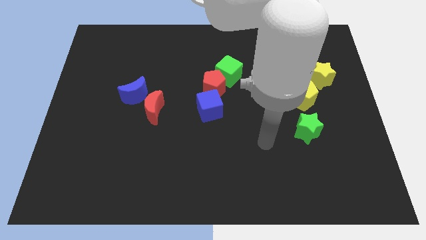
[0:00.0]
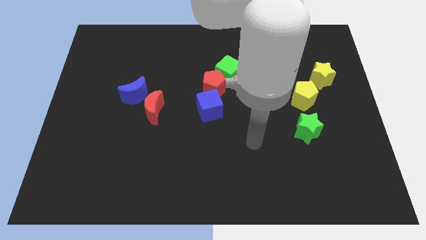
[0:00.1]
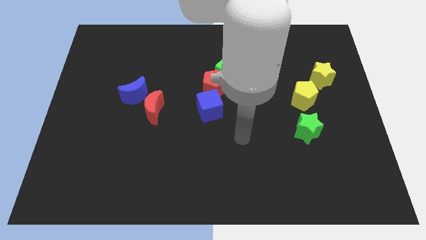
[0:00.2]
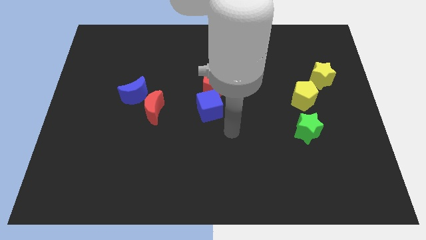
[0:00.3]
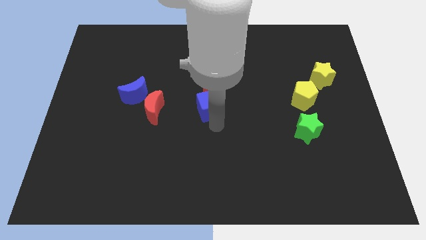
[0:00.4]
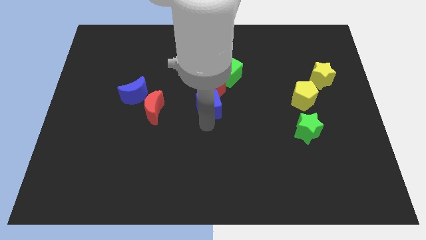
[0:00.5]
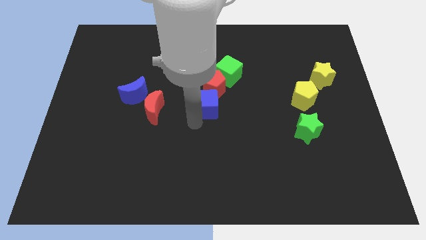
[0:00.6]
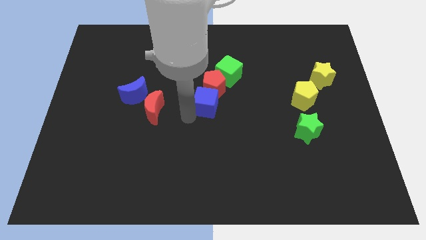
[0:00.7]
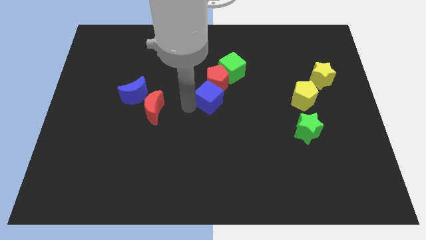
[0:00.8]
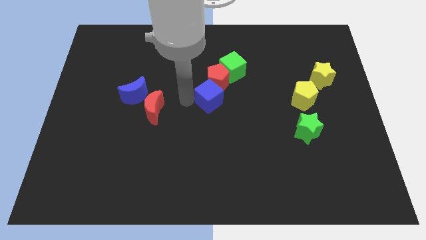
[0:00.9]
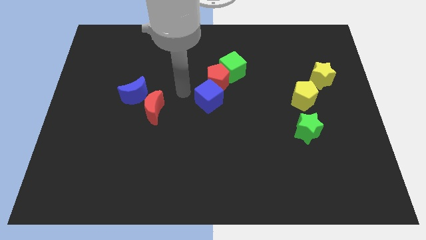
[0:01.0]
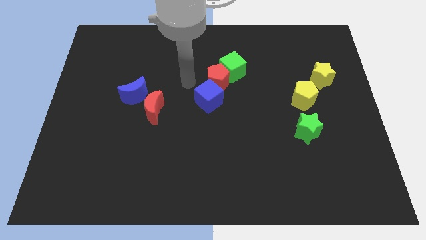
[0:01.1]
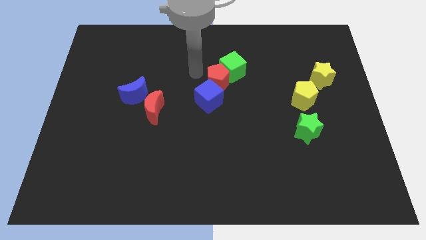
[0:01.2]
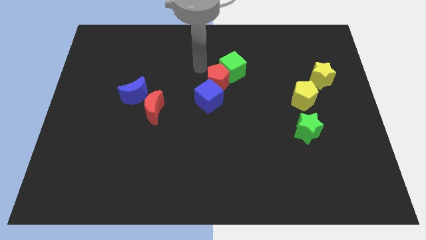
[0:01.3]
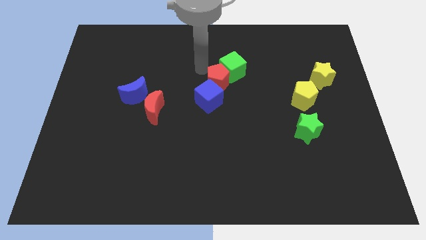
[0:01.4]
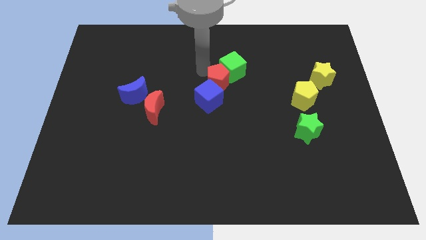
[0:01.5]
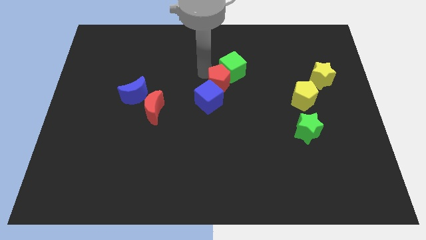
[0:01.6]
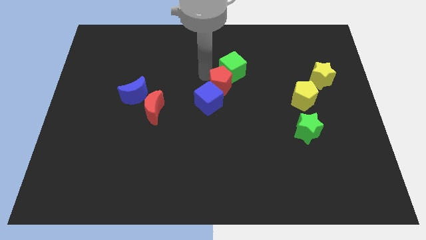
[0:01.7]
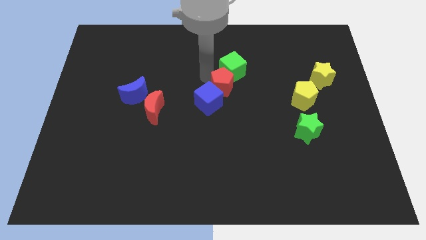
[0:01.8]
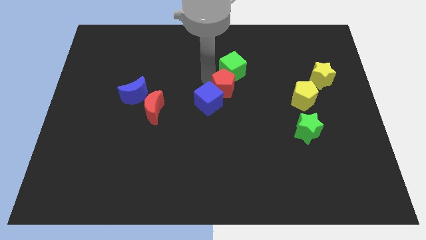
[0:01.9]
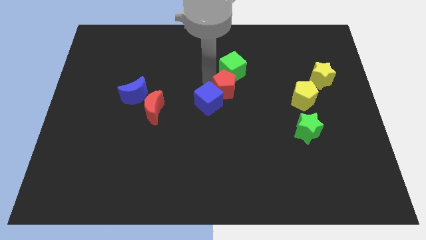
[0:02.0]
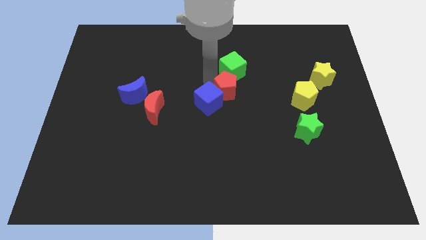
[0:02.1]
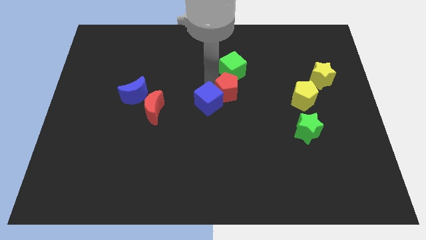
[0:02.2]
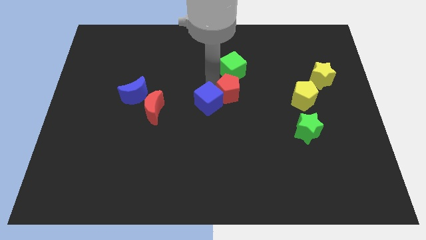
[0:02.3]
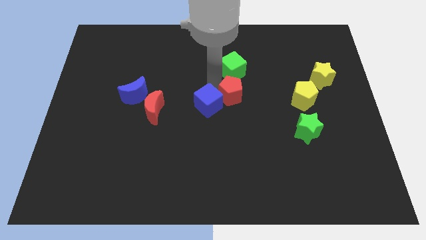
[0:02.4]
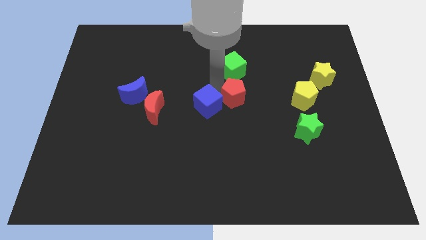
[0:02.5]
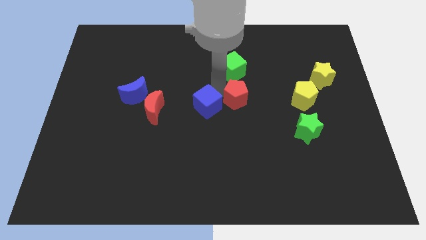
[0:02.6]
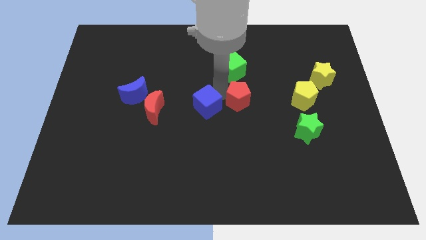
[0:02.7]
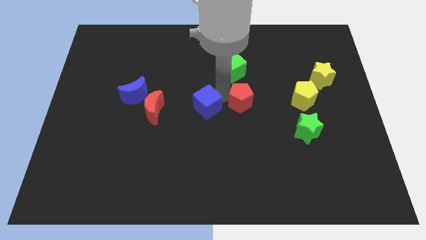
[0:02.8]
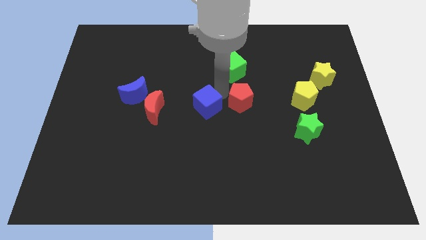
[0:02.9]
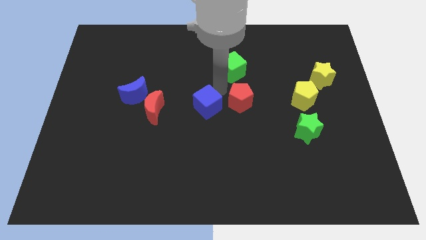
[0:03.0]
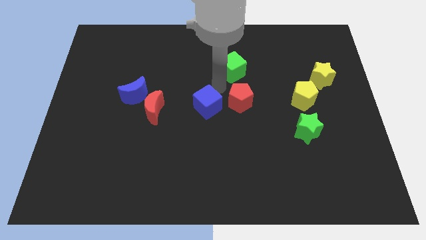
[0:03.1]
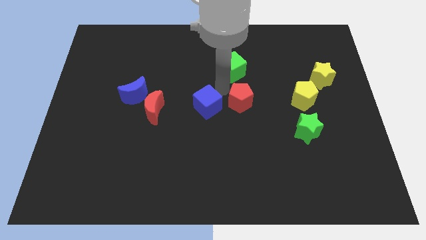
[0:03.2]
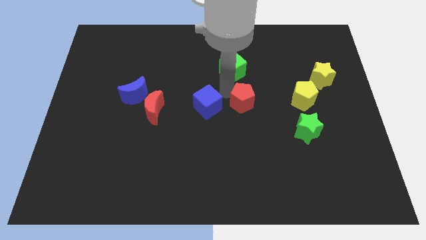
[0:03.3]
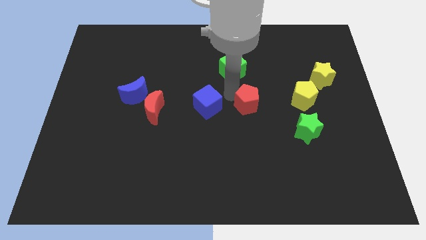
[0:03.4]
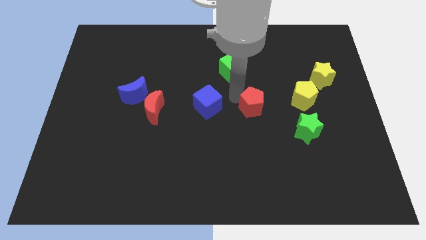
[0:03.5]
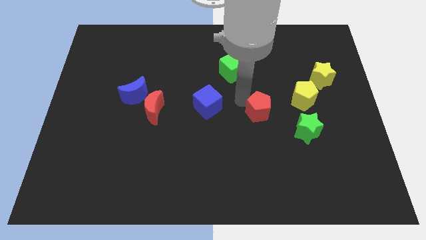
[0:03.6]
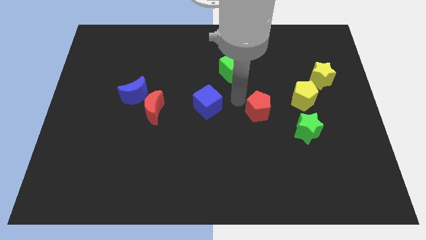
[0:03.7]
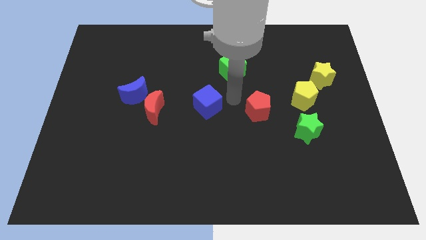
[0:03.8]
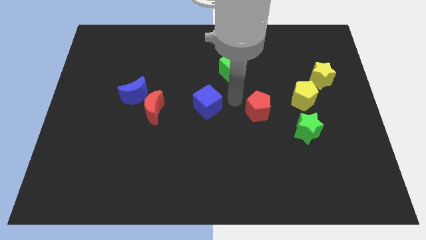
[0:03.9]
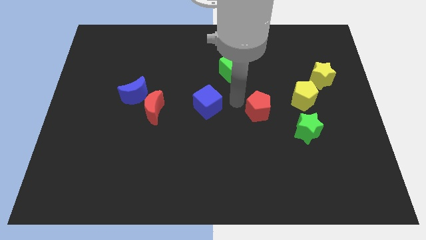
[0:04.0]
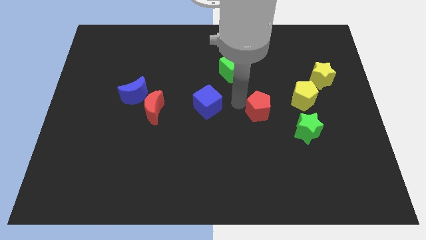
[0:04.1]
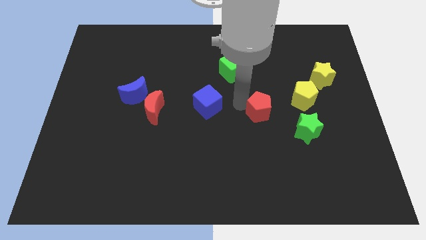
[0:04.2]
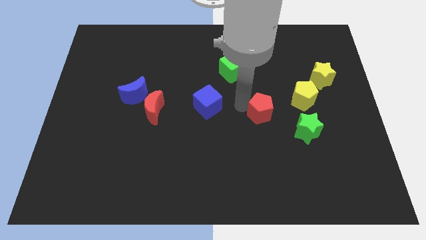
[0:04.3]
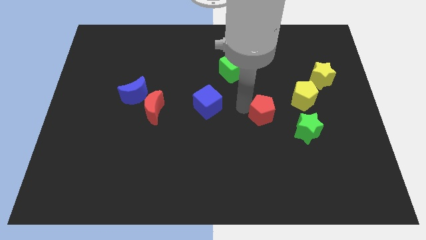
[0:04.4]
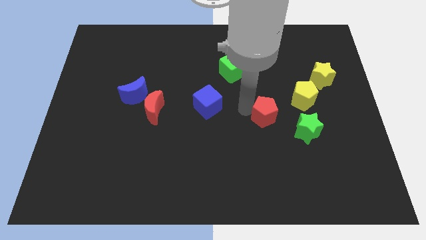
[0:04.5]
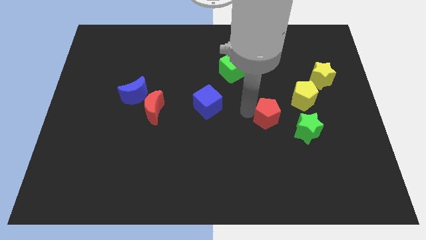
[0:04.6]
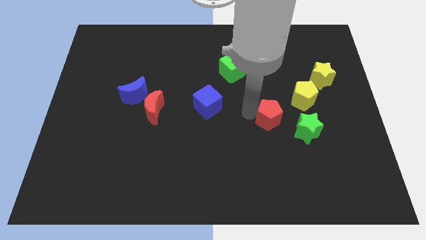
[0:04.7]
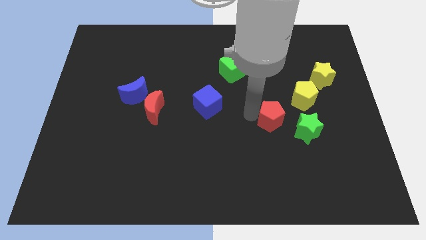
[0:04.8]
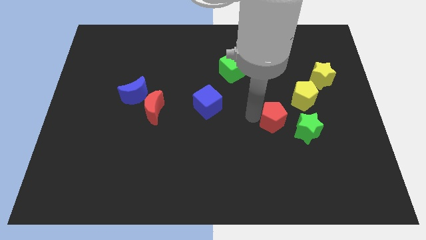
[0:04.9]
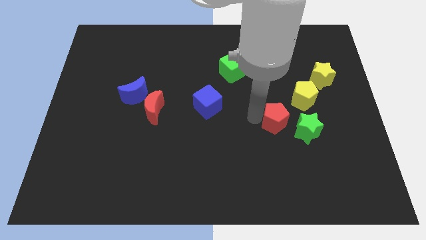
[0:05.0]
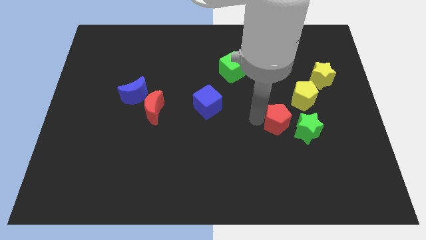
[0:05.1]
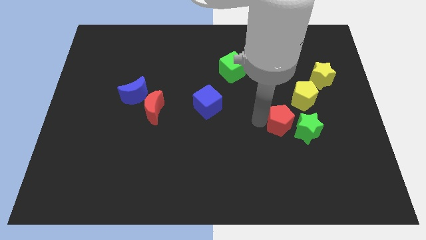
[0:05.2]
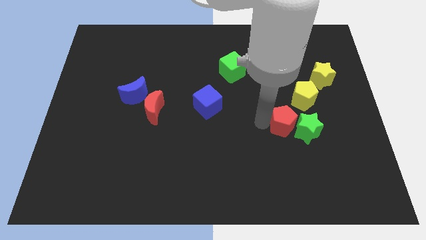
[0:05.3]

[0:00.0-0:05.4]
slide the red pentagon to the green star

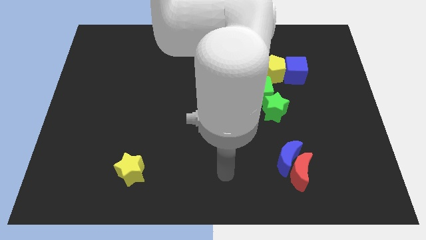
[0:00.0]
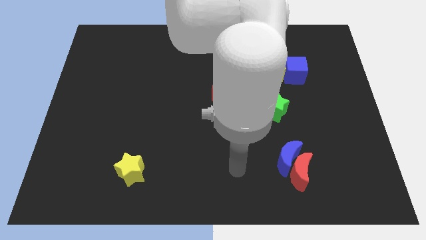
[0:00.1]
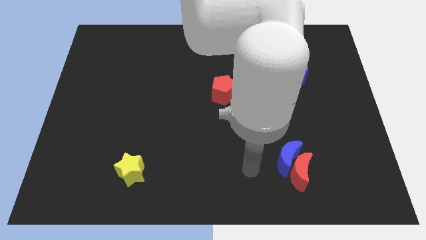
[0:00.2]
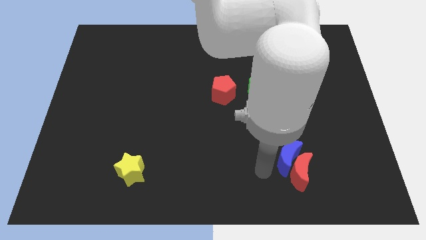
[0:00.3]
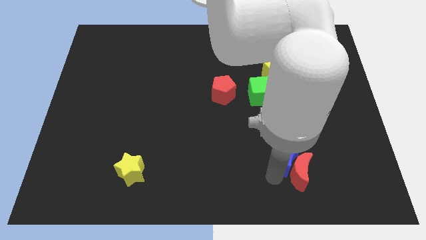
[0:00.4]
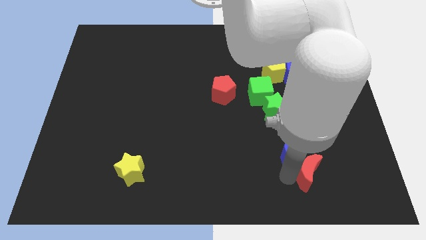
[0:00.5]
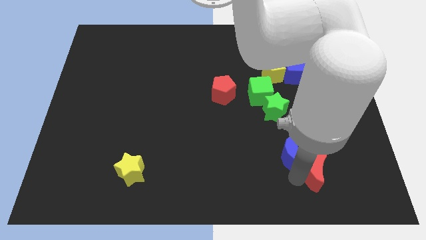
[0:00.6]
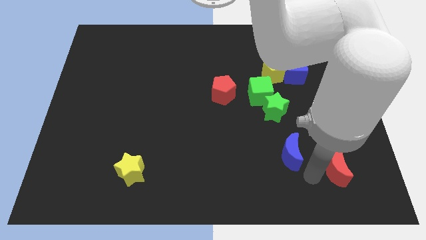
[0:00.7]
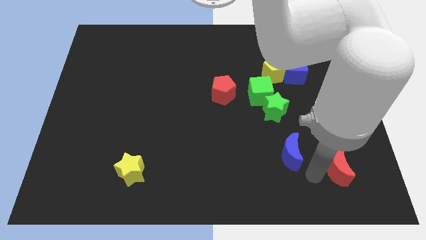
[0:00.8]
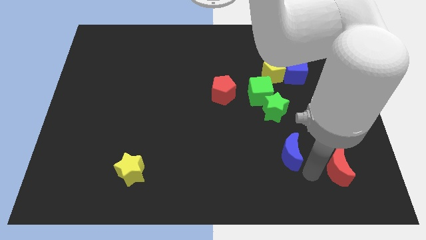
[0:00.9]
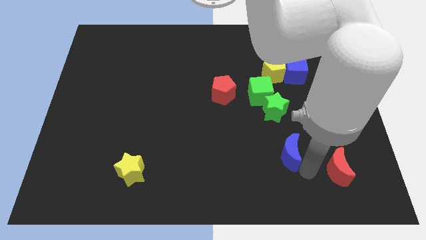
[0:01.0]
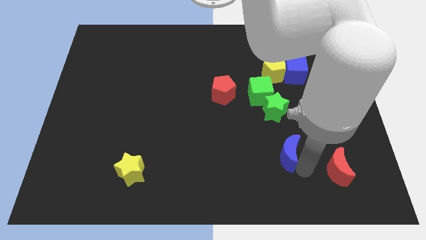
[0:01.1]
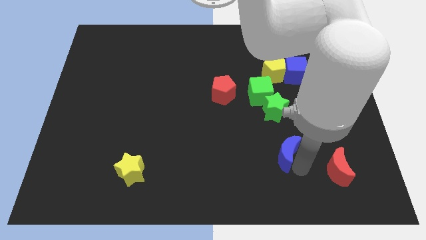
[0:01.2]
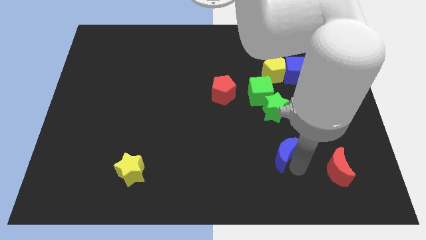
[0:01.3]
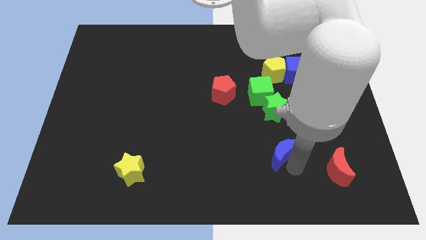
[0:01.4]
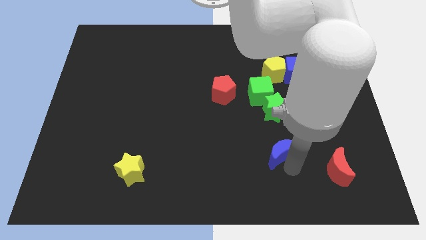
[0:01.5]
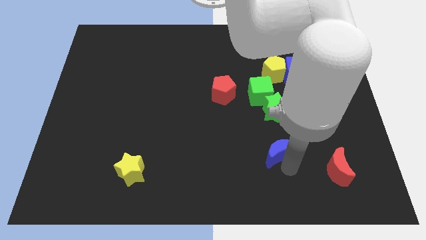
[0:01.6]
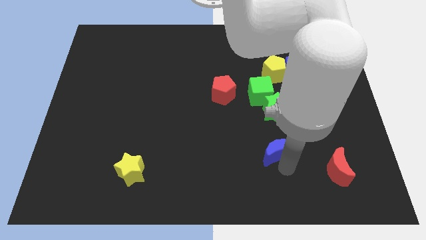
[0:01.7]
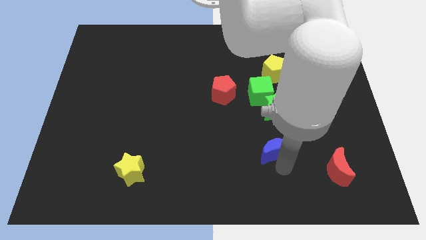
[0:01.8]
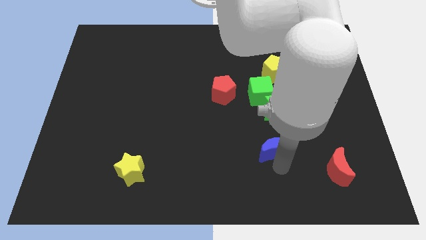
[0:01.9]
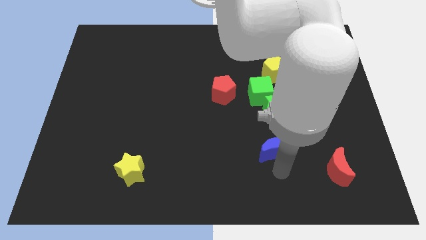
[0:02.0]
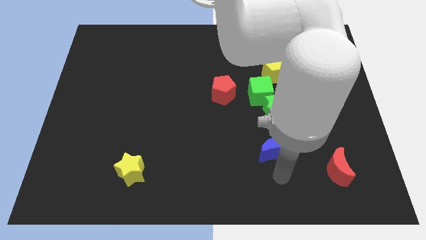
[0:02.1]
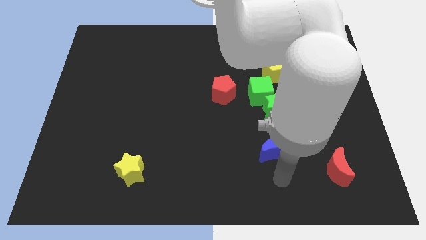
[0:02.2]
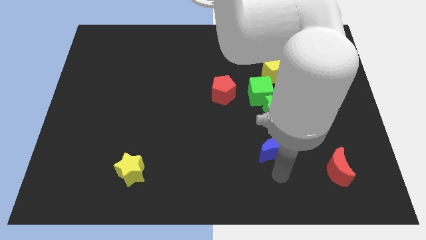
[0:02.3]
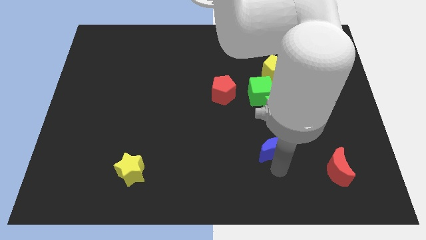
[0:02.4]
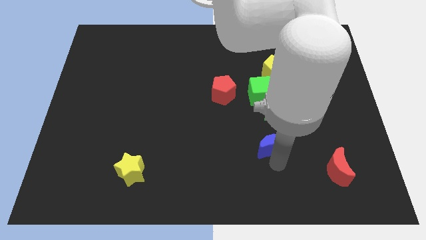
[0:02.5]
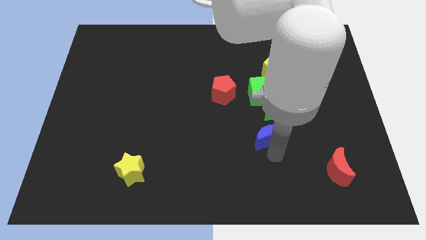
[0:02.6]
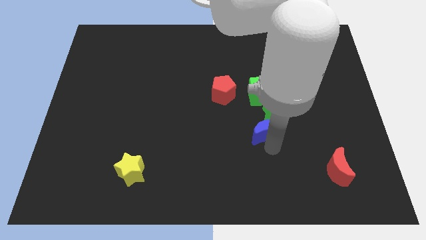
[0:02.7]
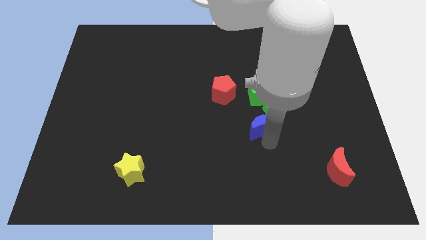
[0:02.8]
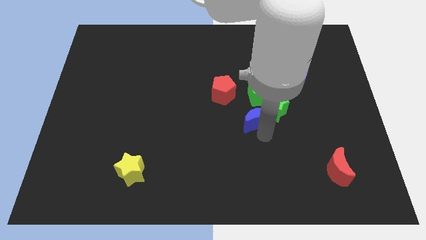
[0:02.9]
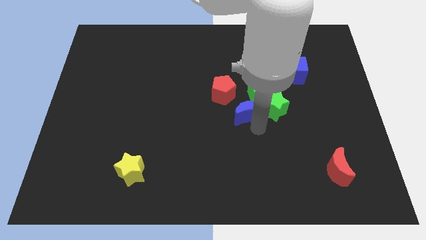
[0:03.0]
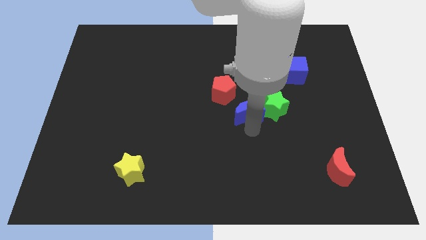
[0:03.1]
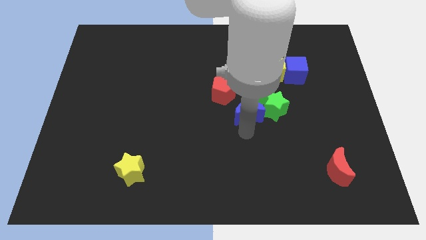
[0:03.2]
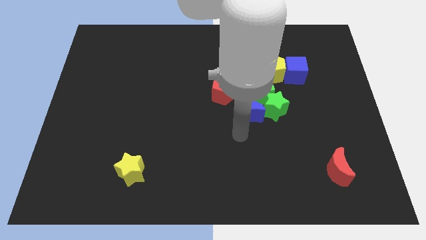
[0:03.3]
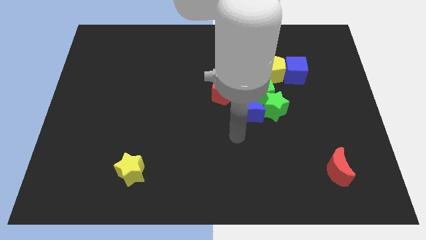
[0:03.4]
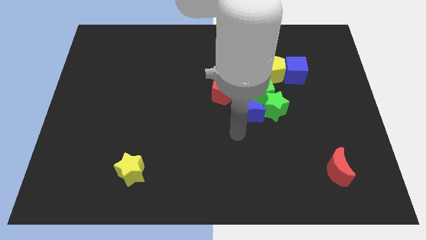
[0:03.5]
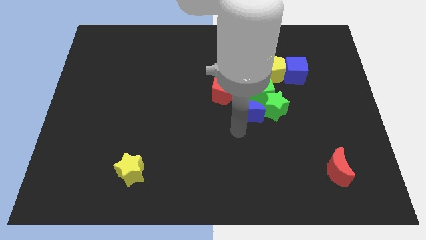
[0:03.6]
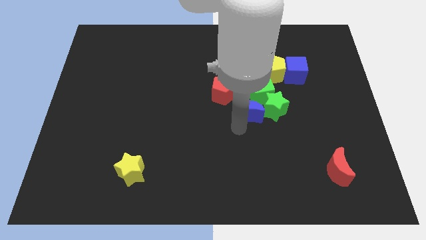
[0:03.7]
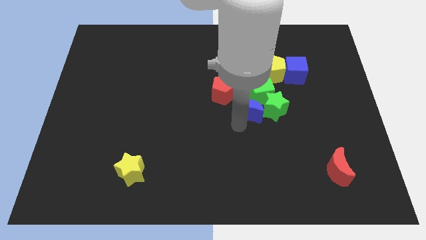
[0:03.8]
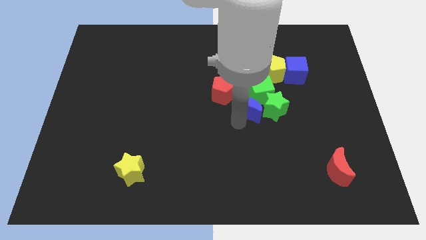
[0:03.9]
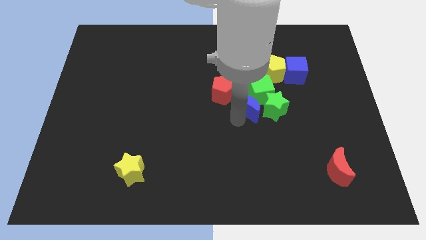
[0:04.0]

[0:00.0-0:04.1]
put the blue moon towards the green cube
